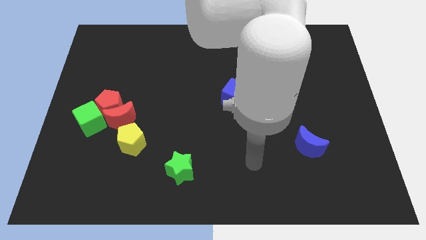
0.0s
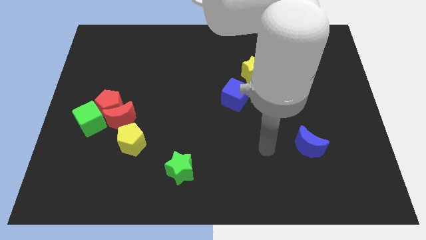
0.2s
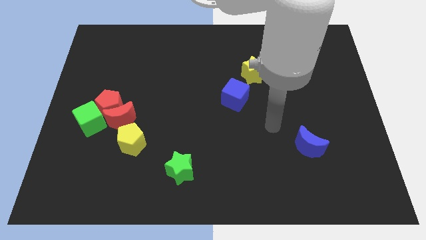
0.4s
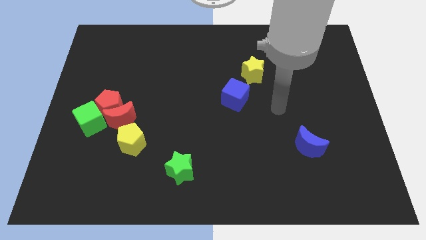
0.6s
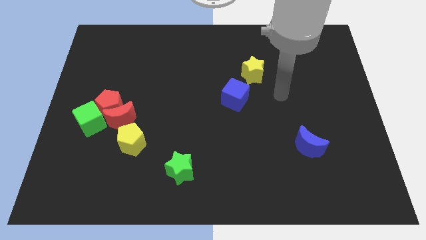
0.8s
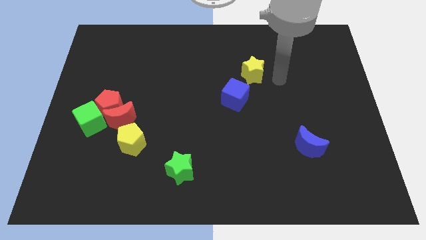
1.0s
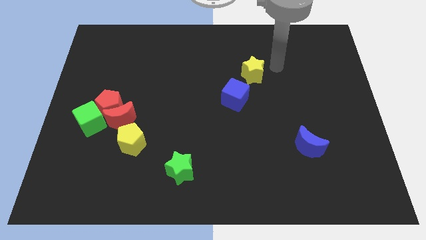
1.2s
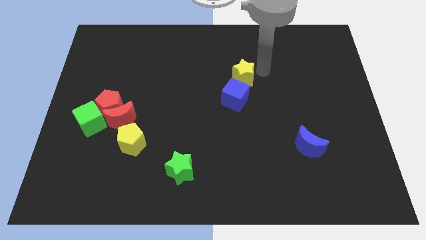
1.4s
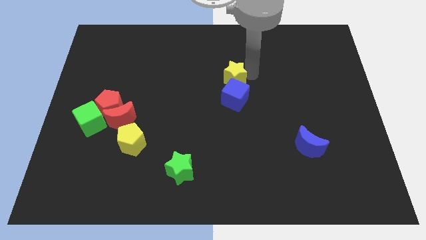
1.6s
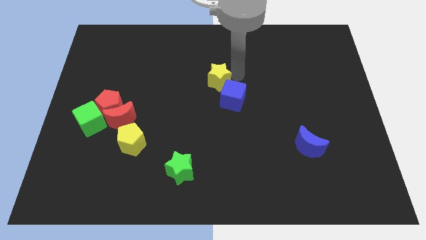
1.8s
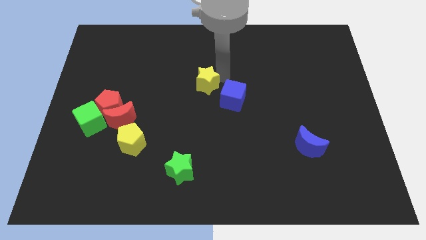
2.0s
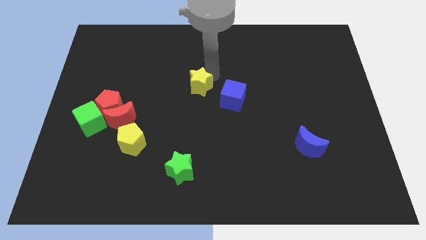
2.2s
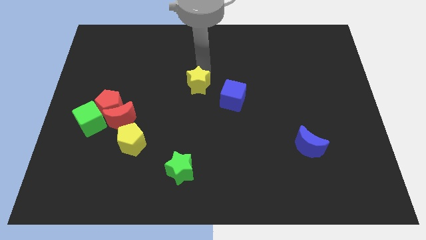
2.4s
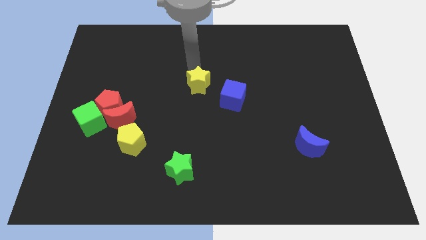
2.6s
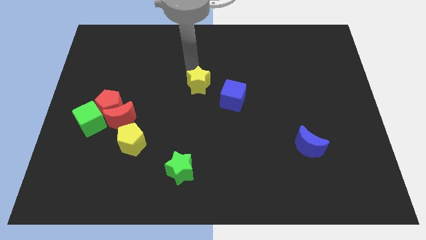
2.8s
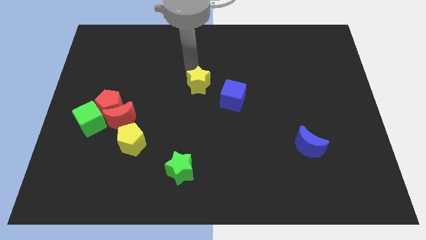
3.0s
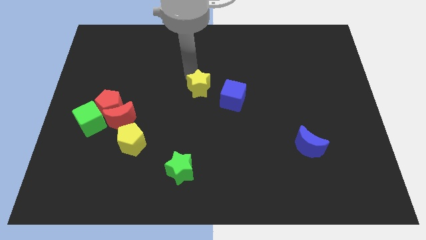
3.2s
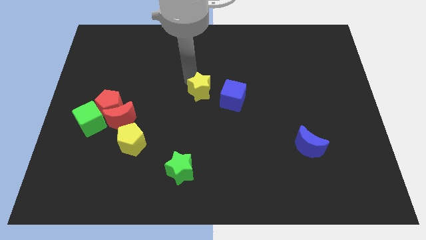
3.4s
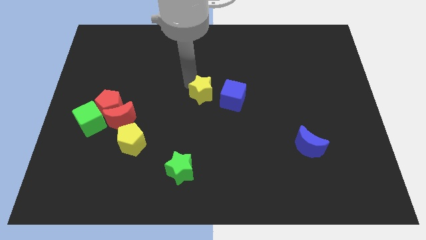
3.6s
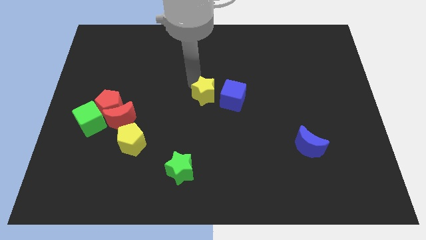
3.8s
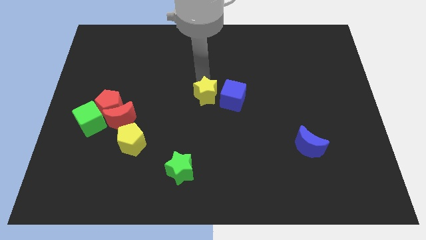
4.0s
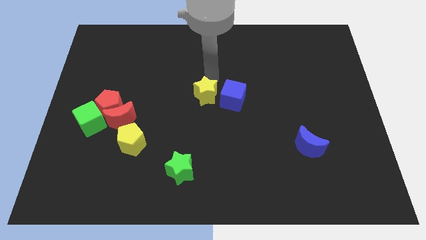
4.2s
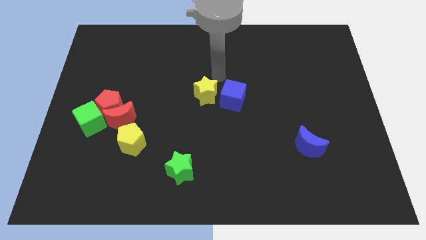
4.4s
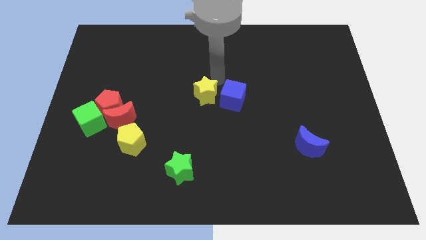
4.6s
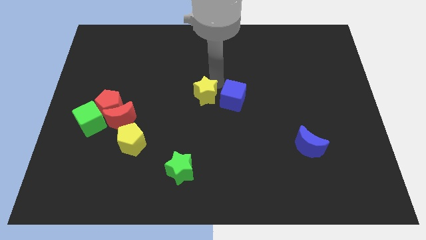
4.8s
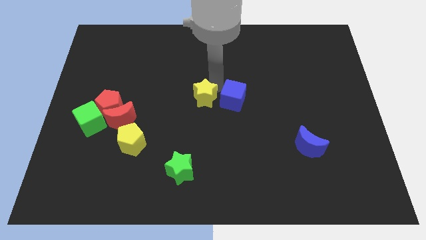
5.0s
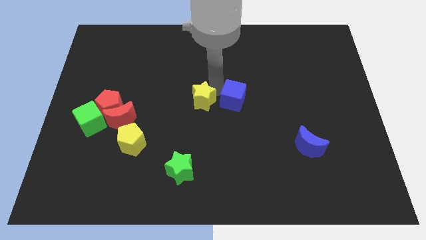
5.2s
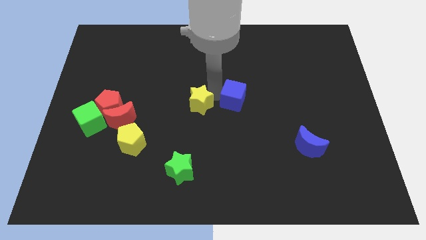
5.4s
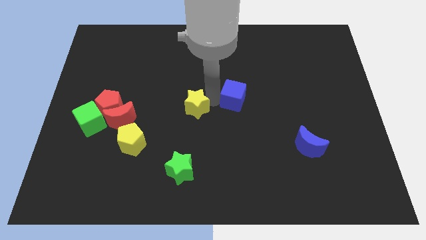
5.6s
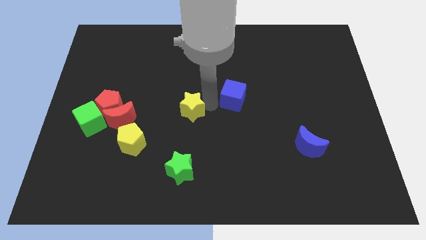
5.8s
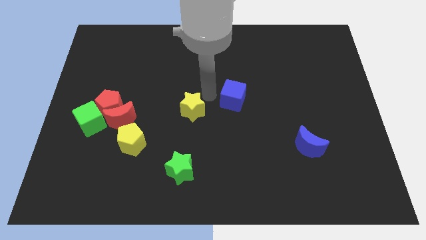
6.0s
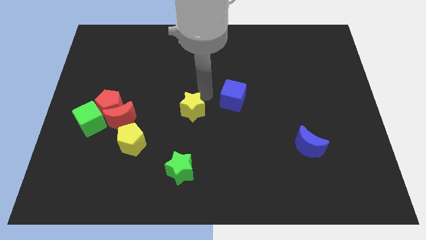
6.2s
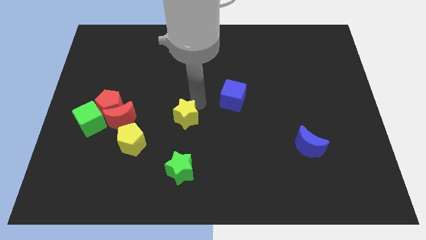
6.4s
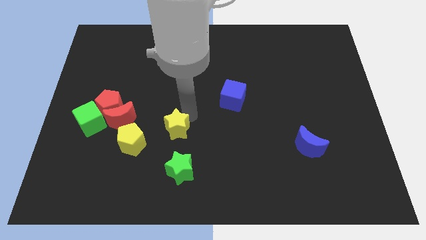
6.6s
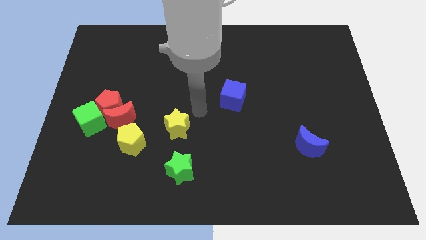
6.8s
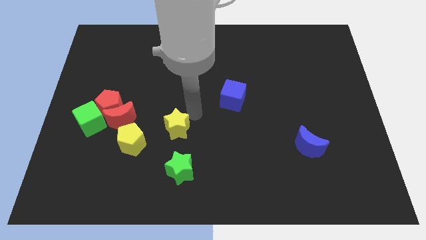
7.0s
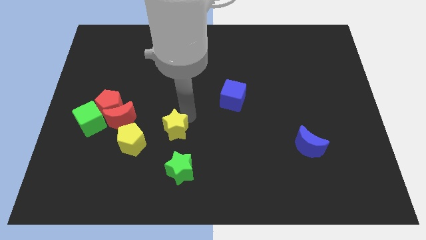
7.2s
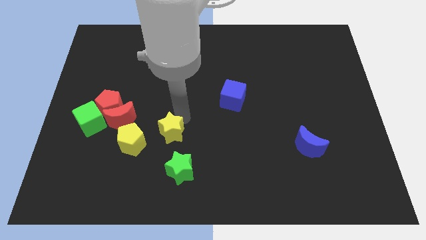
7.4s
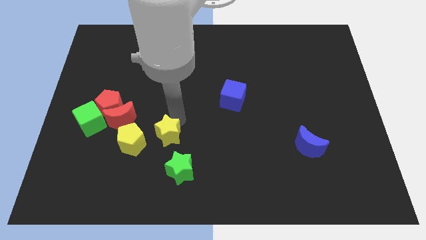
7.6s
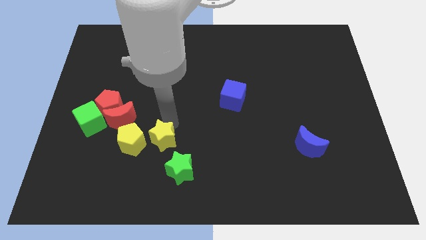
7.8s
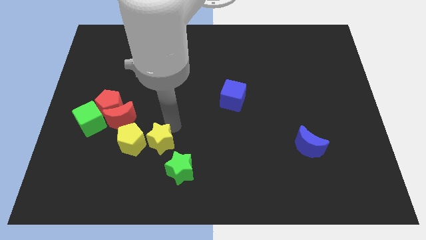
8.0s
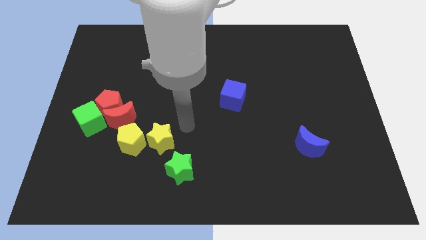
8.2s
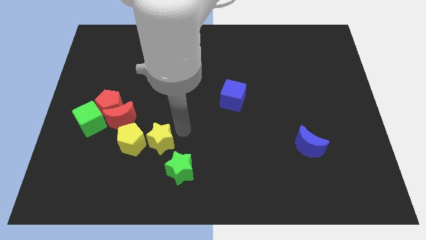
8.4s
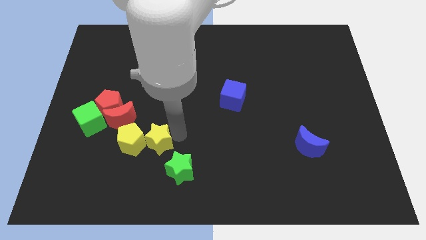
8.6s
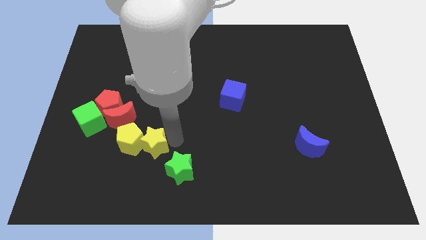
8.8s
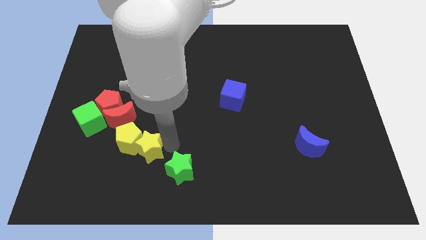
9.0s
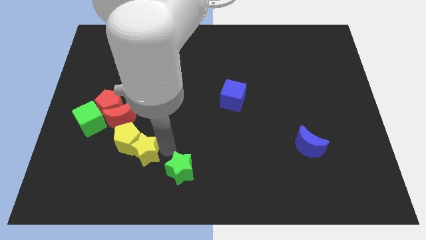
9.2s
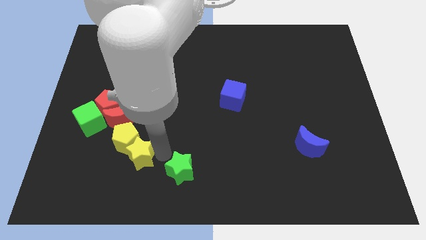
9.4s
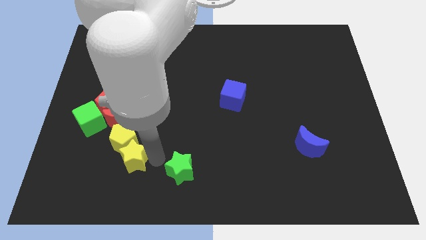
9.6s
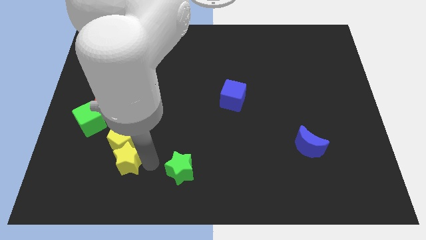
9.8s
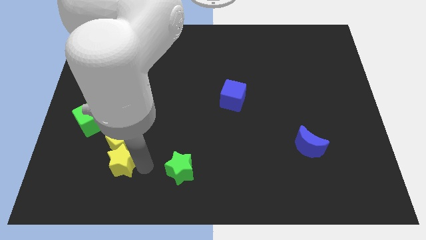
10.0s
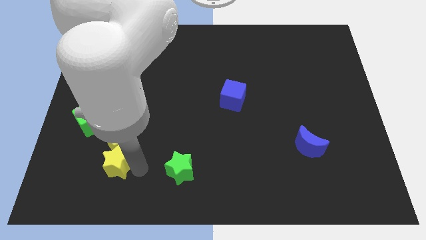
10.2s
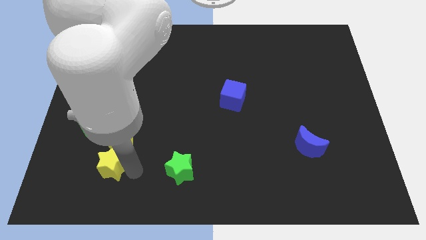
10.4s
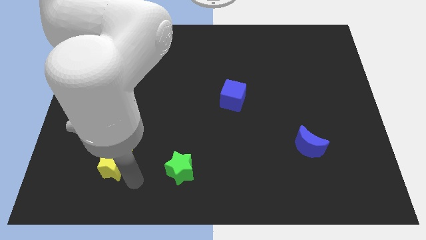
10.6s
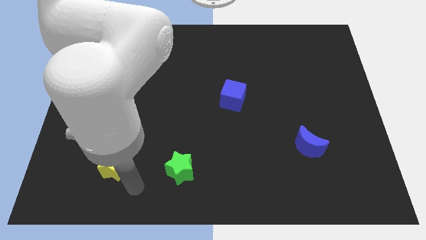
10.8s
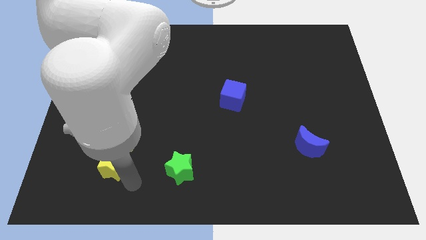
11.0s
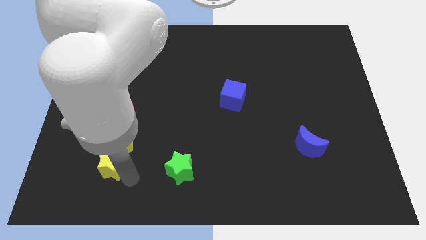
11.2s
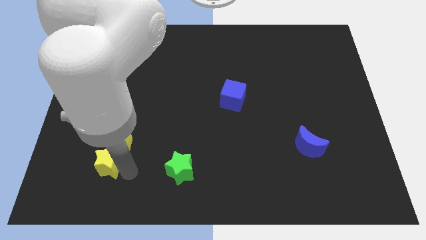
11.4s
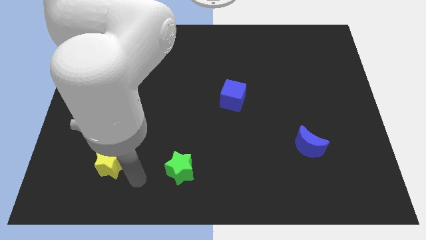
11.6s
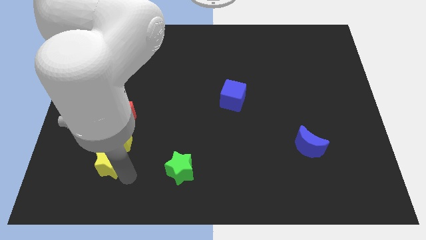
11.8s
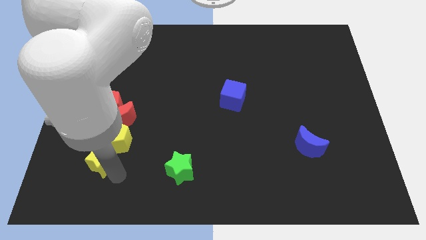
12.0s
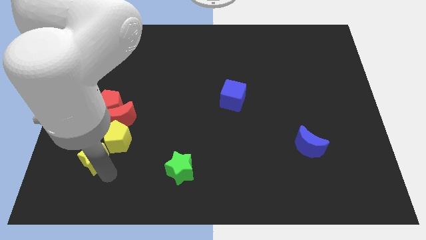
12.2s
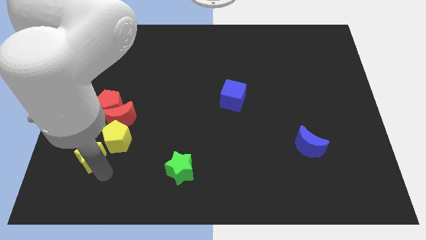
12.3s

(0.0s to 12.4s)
put the yellow star to the left side of the yellow pentagon

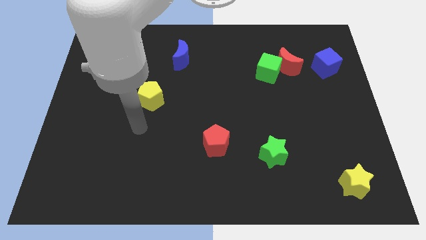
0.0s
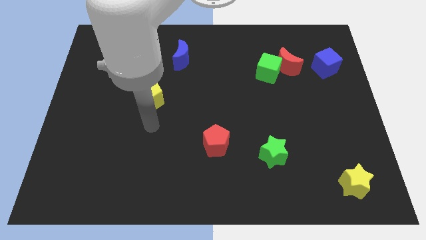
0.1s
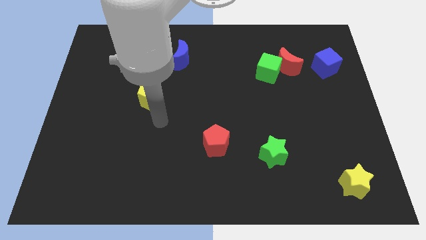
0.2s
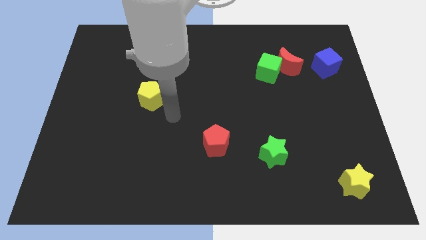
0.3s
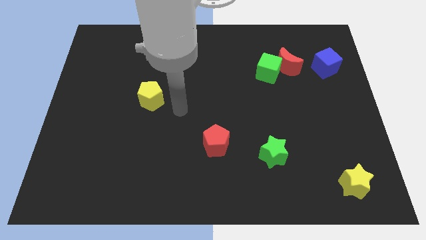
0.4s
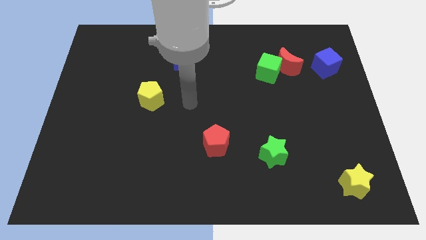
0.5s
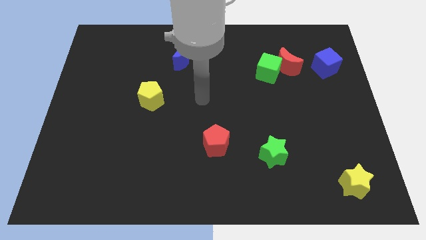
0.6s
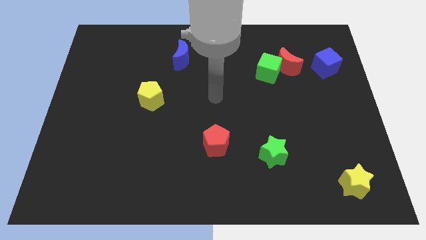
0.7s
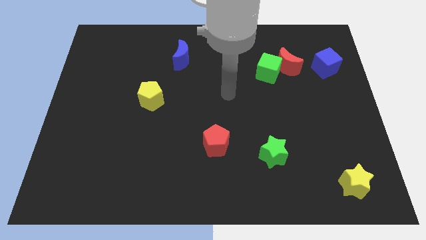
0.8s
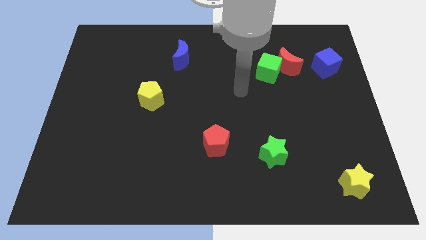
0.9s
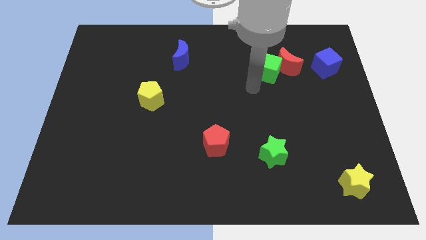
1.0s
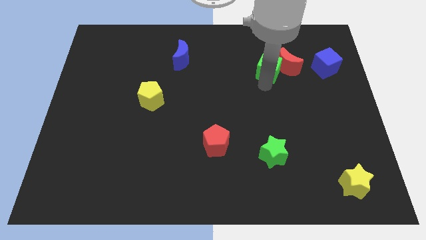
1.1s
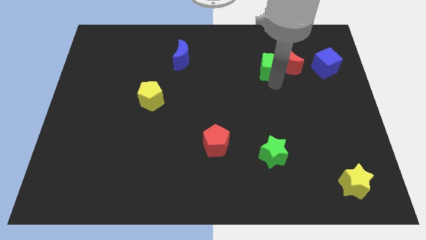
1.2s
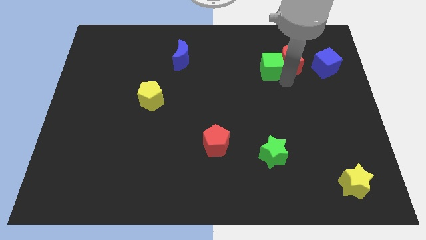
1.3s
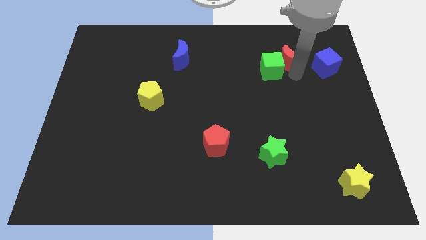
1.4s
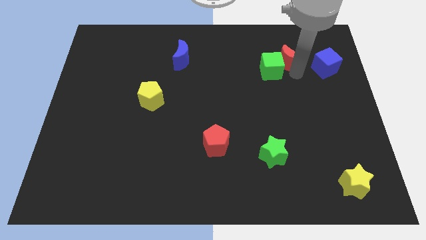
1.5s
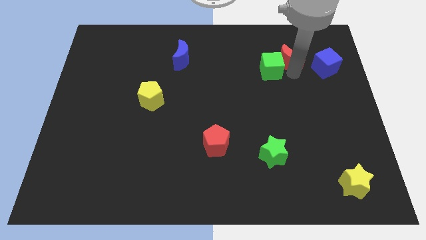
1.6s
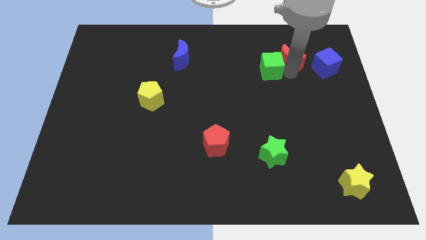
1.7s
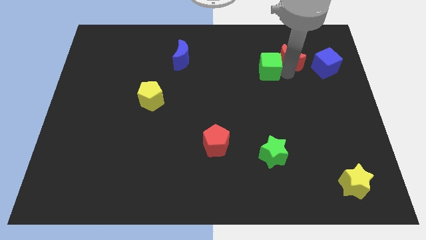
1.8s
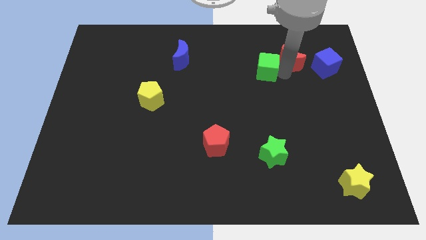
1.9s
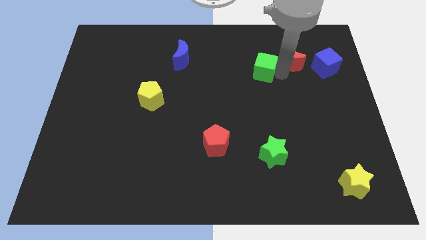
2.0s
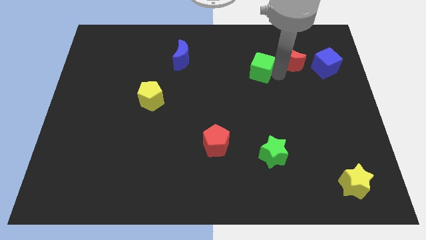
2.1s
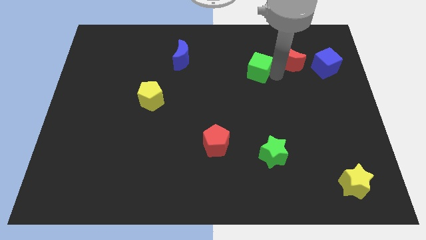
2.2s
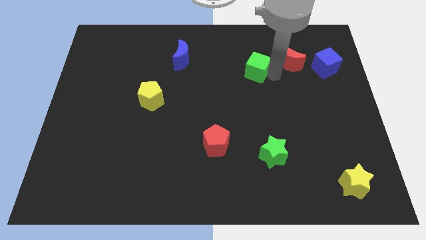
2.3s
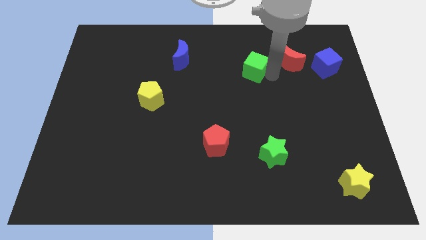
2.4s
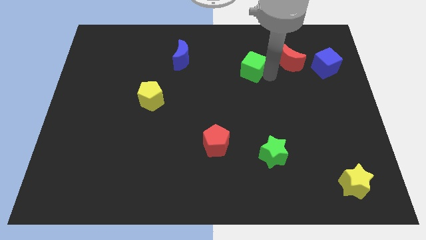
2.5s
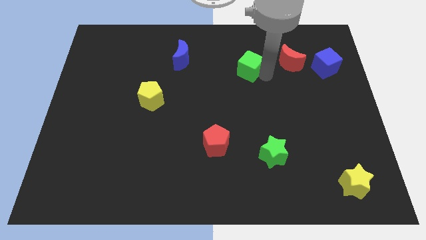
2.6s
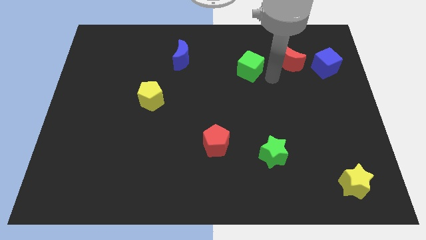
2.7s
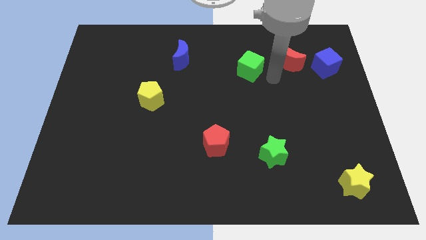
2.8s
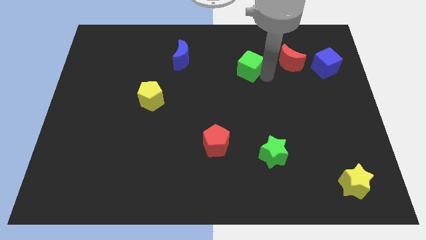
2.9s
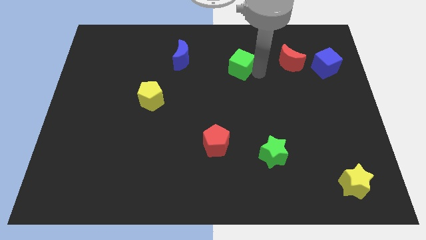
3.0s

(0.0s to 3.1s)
slide the green cube to the right side of the blue moon
